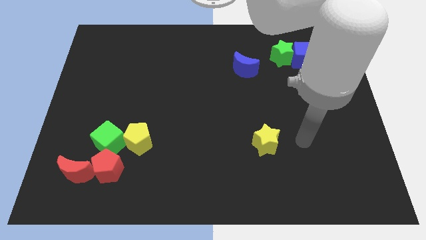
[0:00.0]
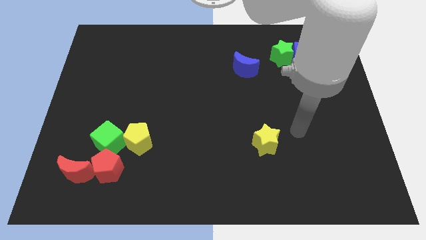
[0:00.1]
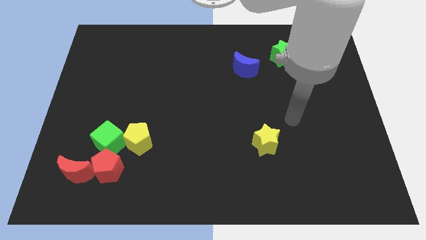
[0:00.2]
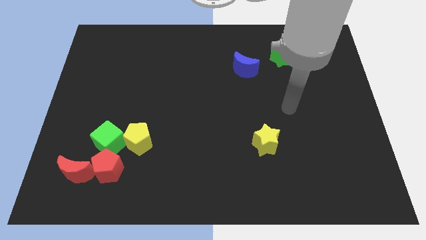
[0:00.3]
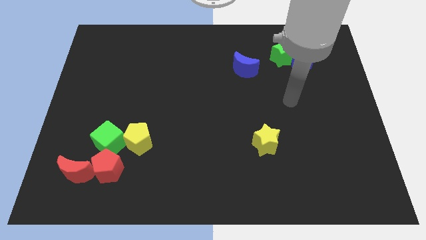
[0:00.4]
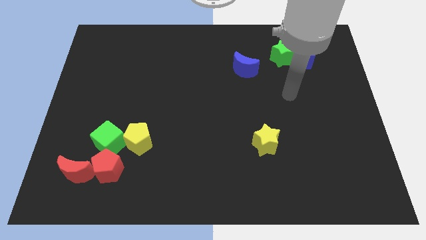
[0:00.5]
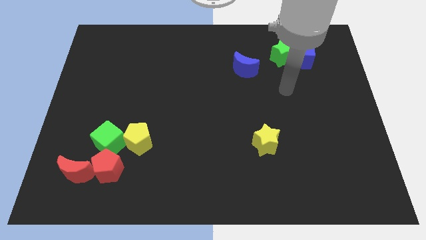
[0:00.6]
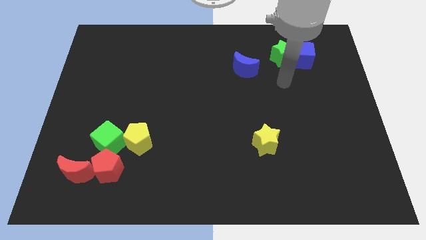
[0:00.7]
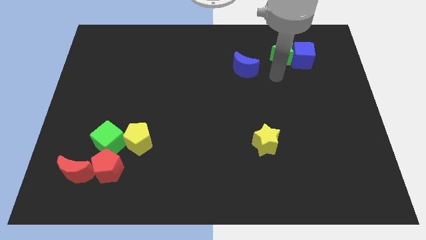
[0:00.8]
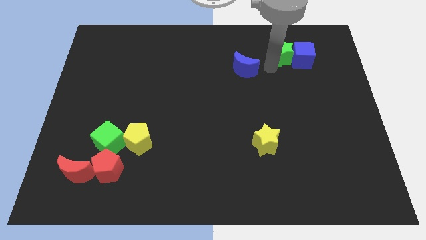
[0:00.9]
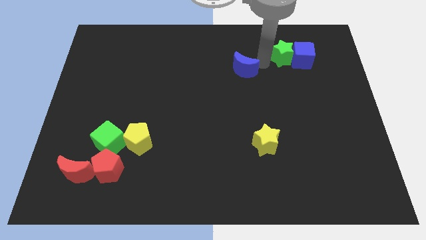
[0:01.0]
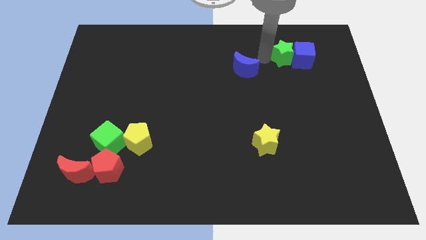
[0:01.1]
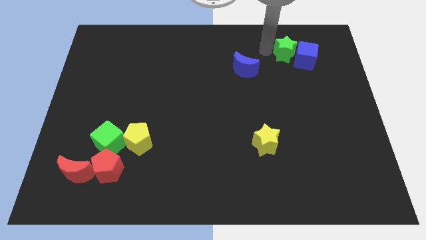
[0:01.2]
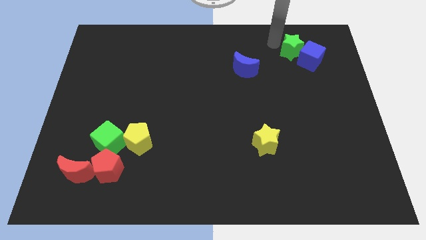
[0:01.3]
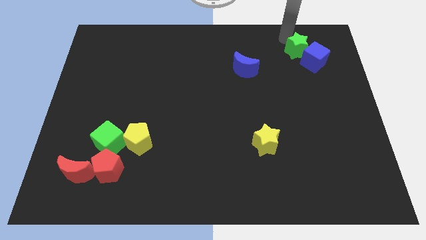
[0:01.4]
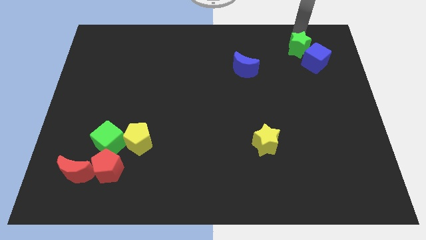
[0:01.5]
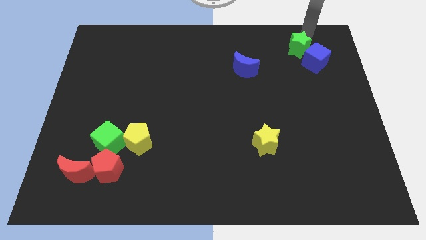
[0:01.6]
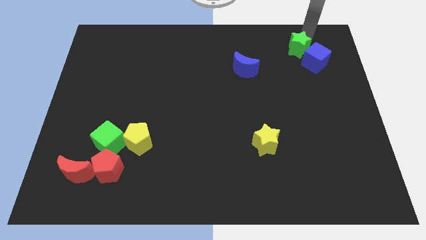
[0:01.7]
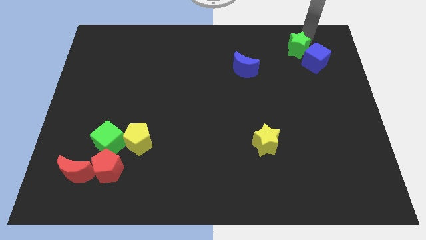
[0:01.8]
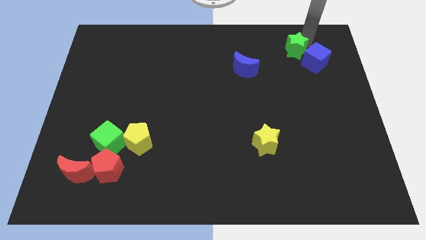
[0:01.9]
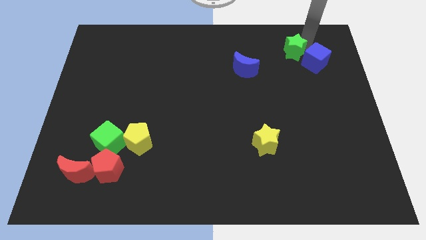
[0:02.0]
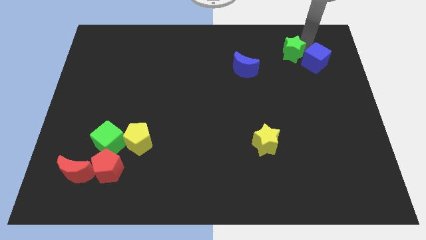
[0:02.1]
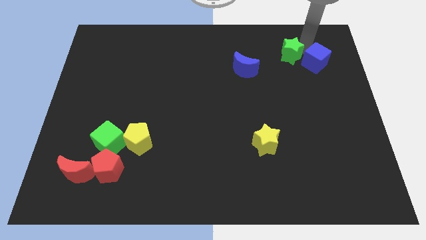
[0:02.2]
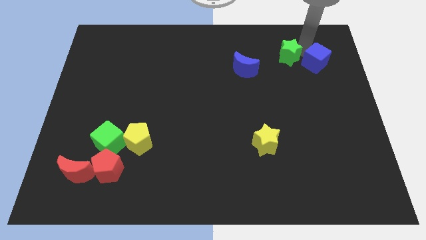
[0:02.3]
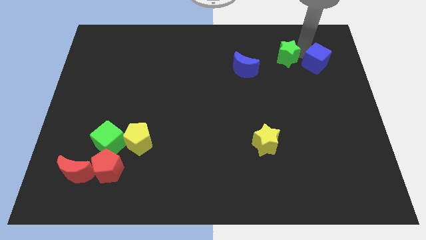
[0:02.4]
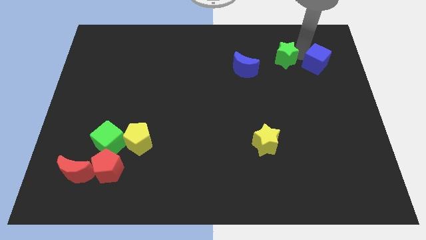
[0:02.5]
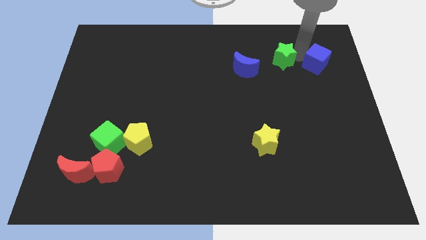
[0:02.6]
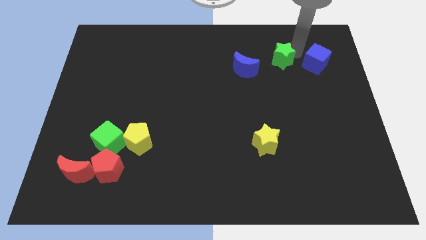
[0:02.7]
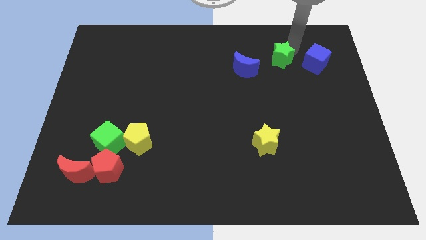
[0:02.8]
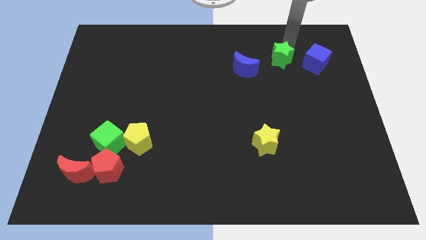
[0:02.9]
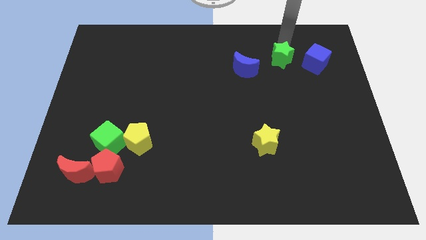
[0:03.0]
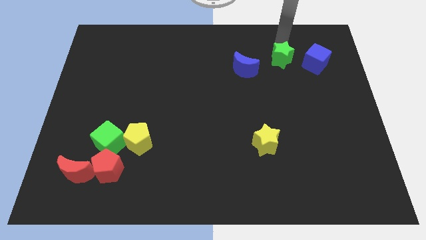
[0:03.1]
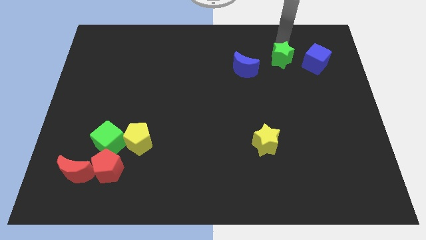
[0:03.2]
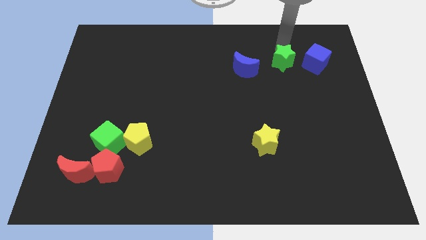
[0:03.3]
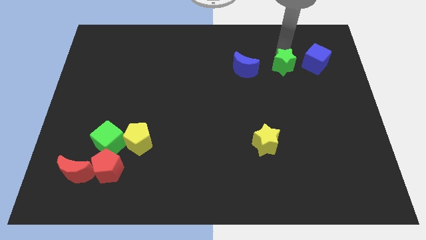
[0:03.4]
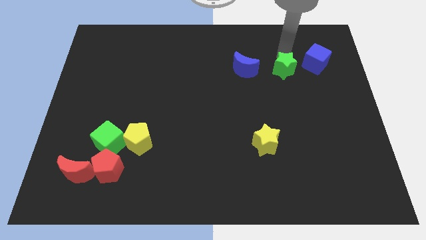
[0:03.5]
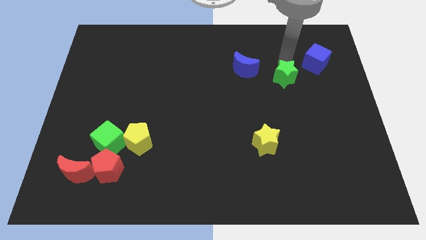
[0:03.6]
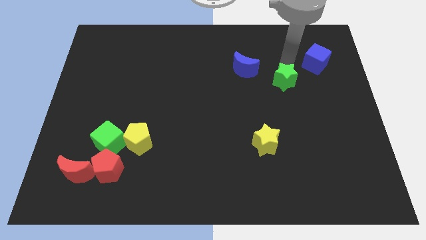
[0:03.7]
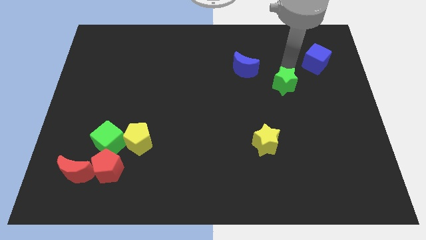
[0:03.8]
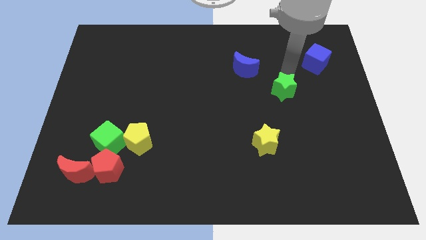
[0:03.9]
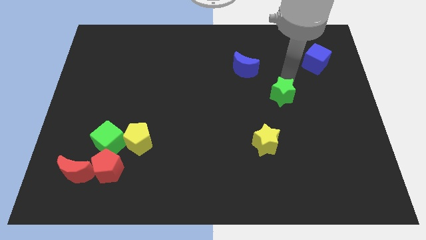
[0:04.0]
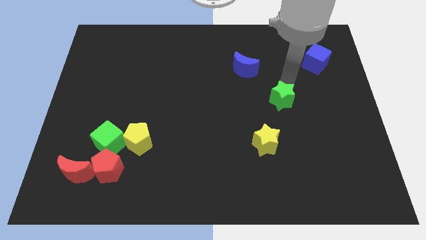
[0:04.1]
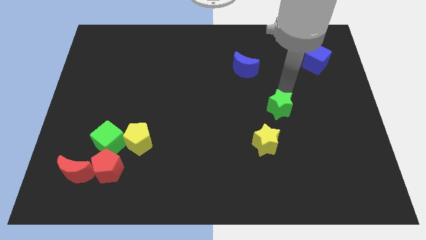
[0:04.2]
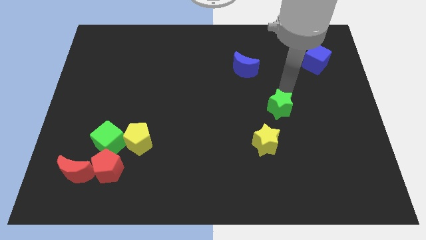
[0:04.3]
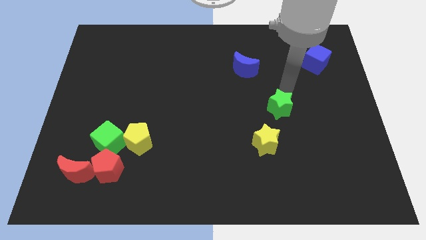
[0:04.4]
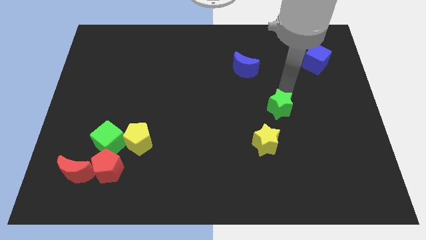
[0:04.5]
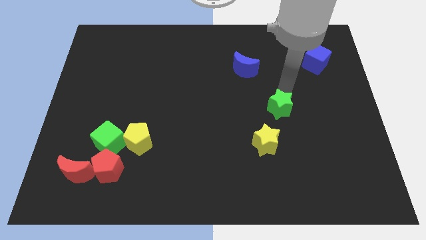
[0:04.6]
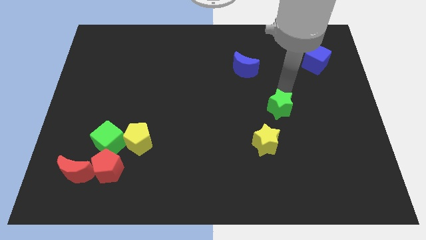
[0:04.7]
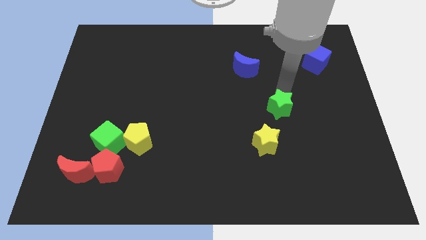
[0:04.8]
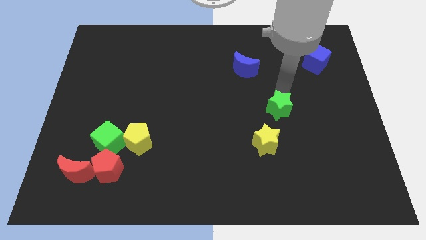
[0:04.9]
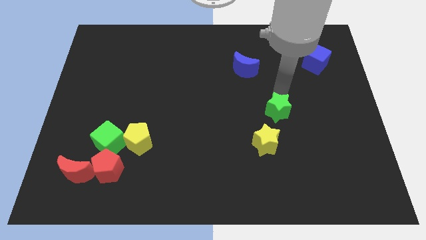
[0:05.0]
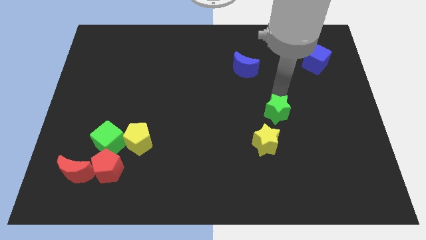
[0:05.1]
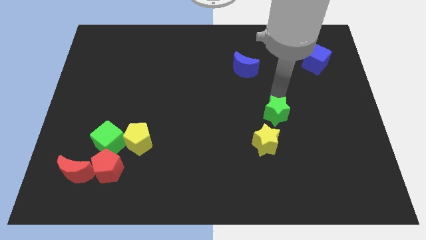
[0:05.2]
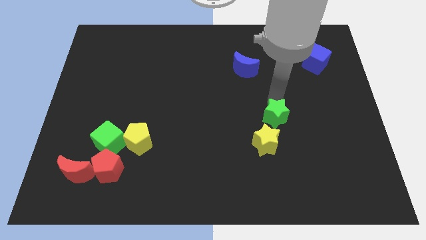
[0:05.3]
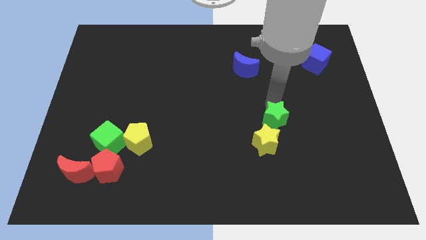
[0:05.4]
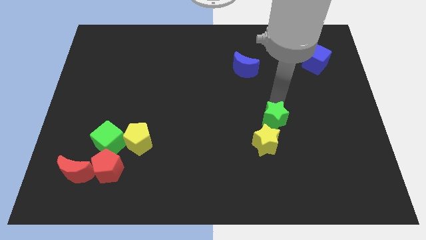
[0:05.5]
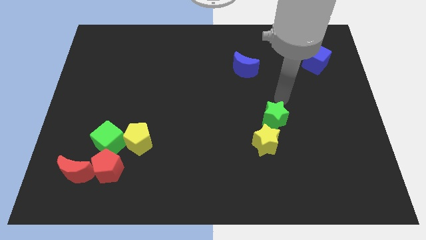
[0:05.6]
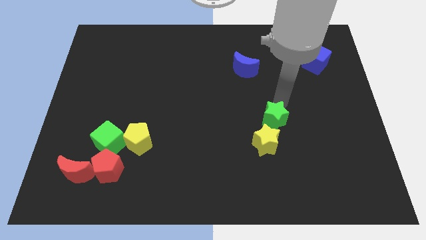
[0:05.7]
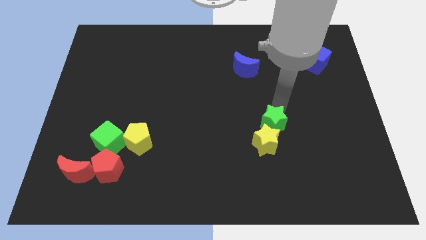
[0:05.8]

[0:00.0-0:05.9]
slide the green star towards the yellow star
